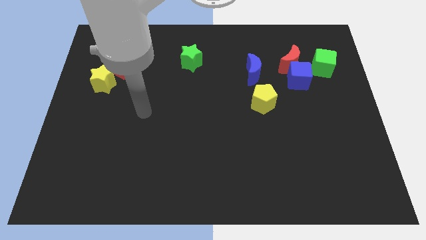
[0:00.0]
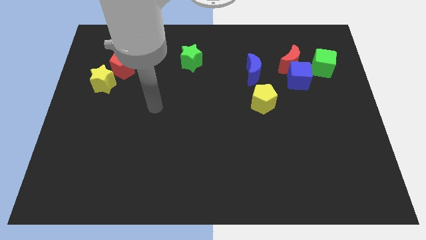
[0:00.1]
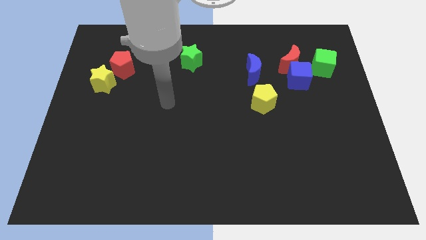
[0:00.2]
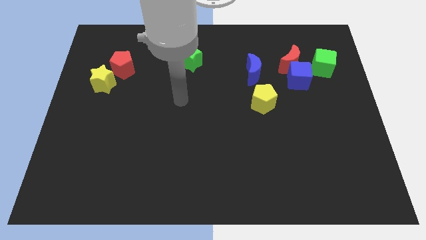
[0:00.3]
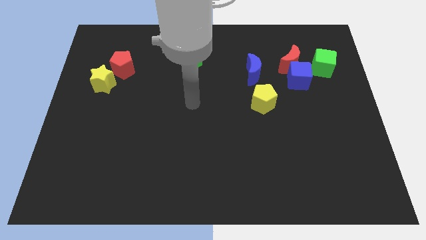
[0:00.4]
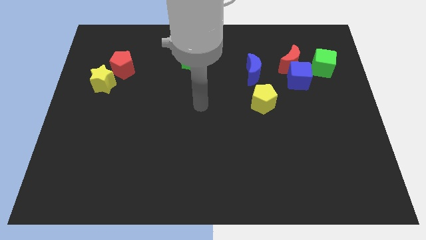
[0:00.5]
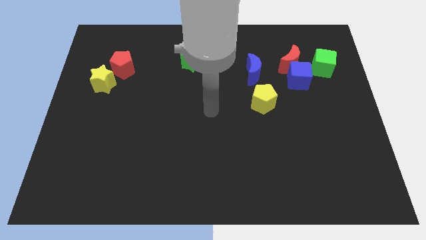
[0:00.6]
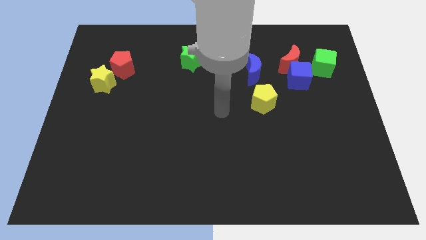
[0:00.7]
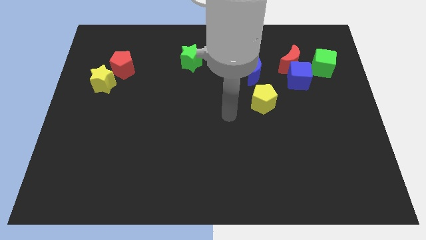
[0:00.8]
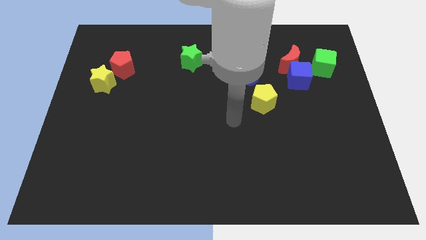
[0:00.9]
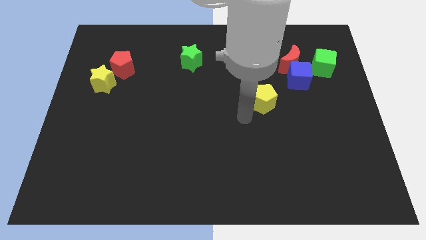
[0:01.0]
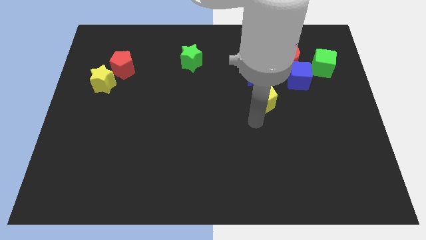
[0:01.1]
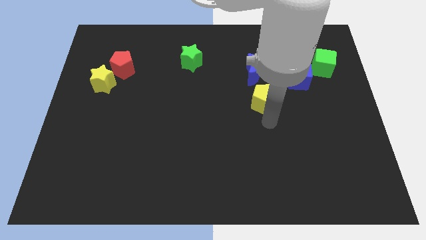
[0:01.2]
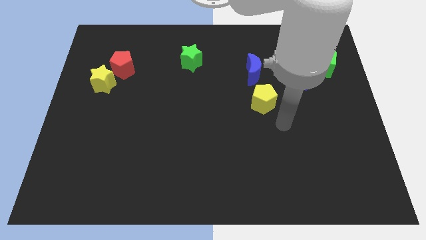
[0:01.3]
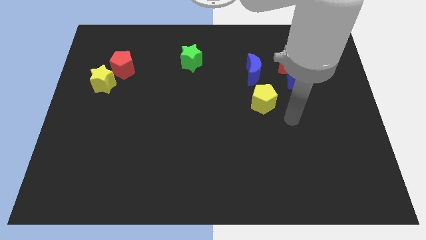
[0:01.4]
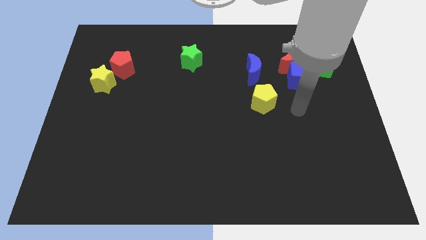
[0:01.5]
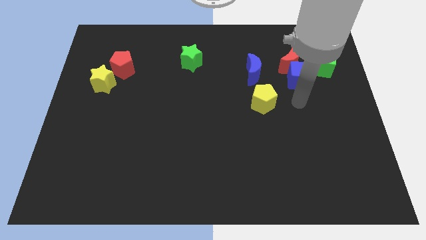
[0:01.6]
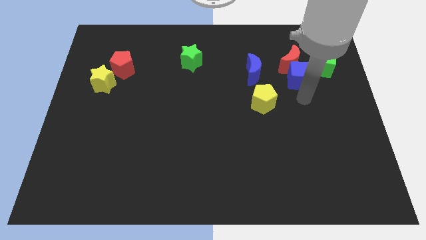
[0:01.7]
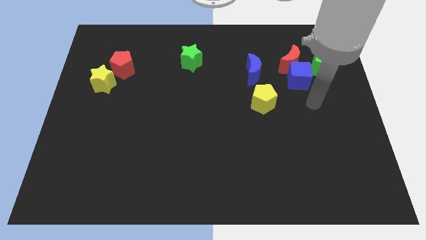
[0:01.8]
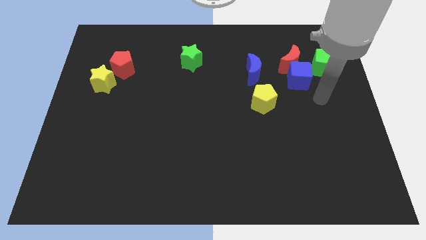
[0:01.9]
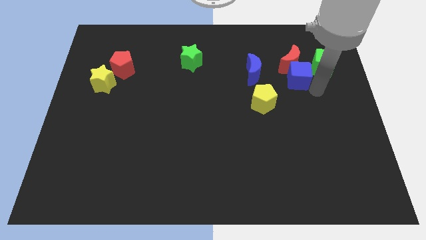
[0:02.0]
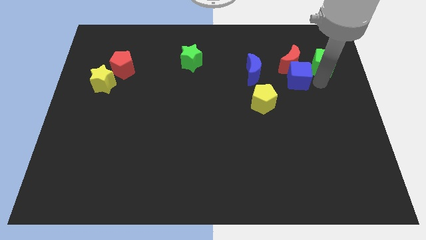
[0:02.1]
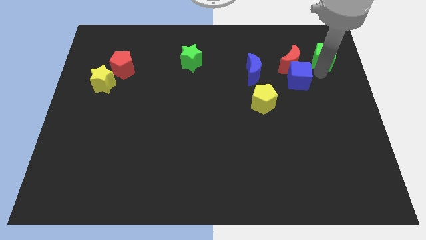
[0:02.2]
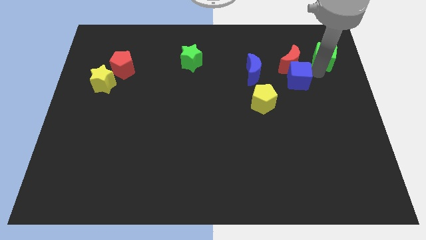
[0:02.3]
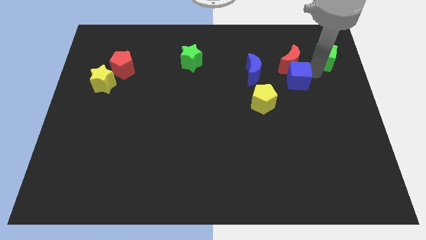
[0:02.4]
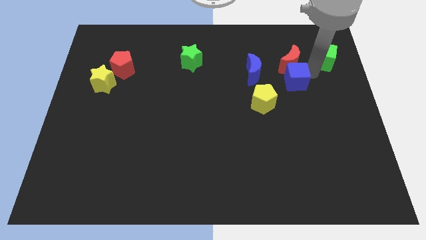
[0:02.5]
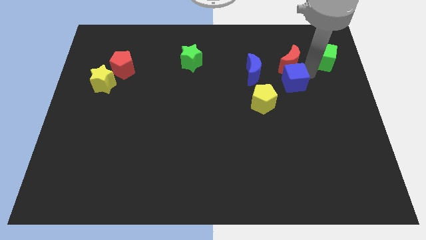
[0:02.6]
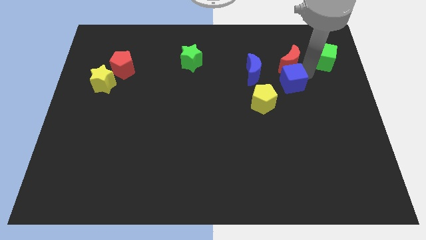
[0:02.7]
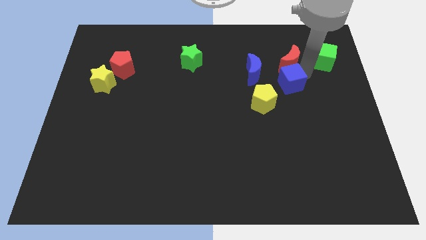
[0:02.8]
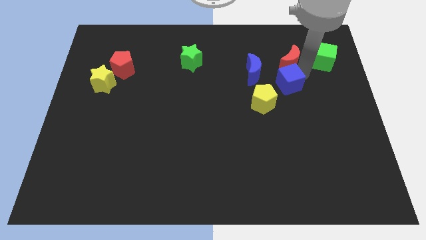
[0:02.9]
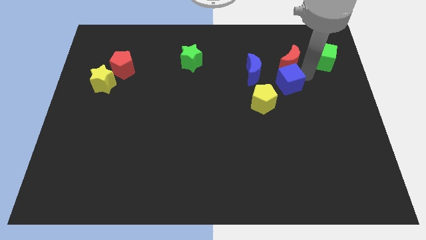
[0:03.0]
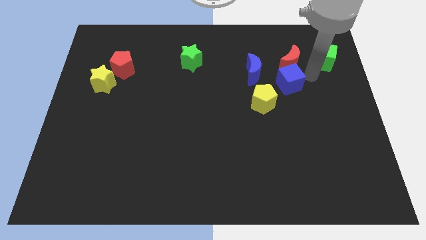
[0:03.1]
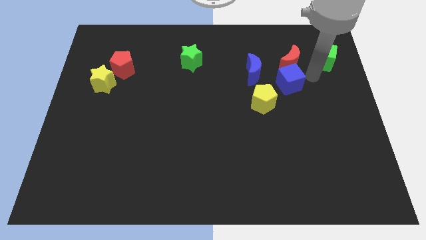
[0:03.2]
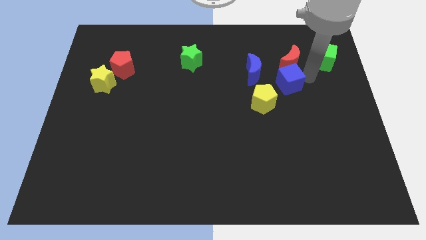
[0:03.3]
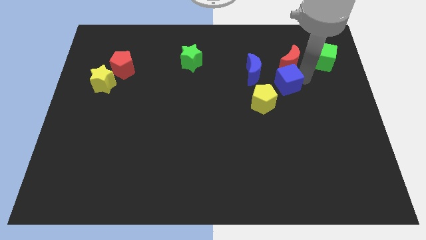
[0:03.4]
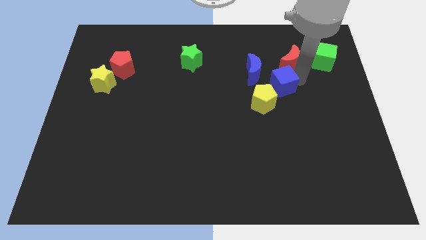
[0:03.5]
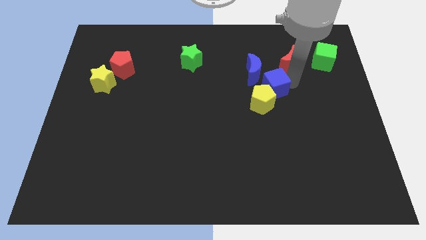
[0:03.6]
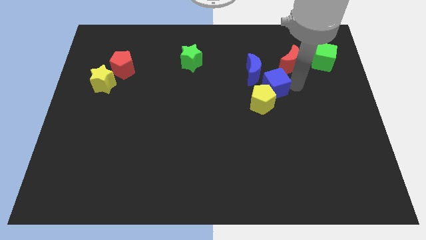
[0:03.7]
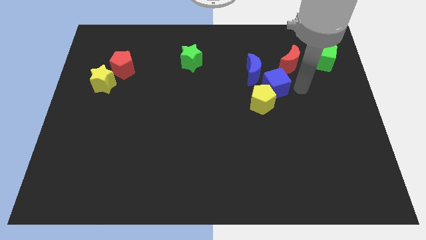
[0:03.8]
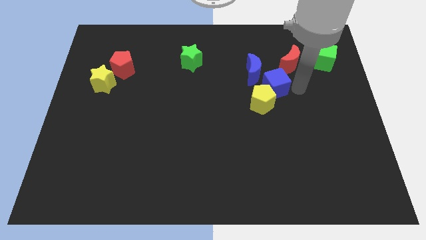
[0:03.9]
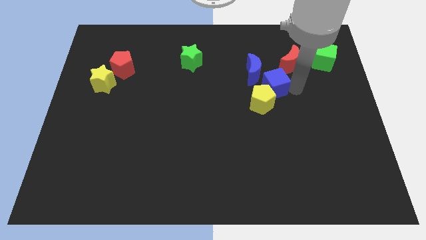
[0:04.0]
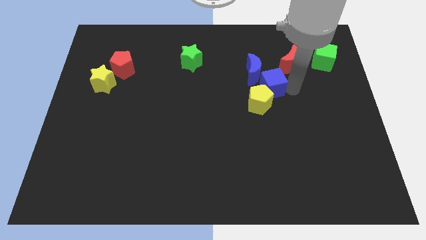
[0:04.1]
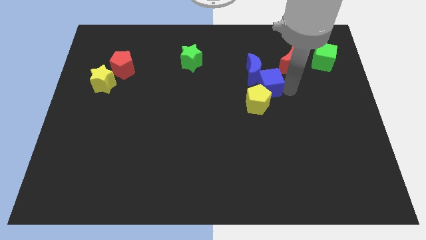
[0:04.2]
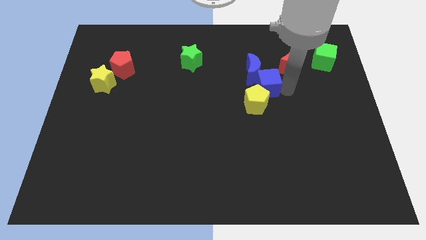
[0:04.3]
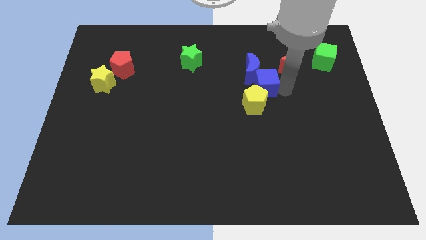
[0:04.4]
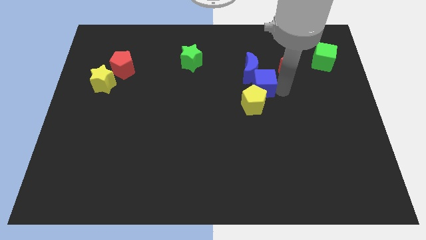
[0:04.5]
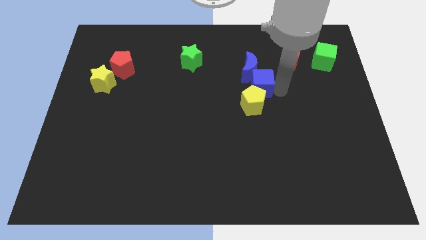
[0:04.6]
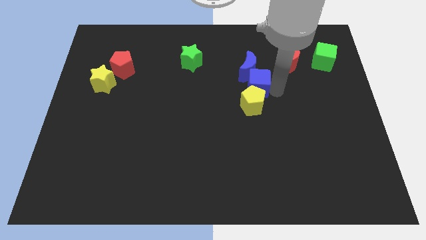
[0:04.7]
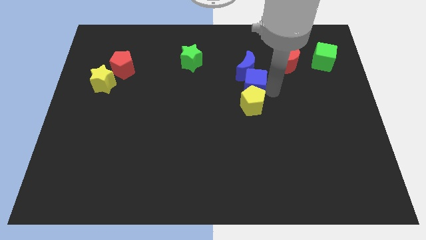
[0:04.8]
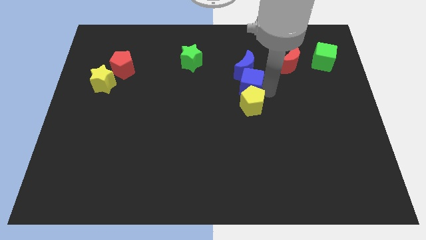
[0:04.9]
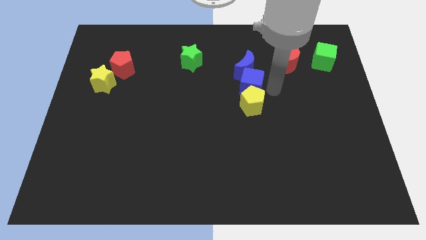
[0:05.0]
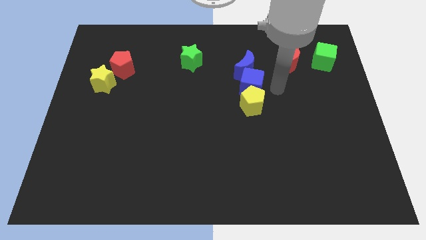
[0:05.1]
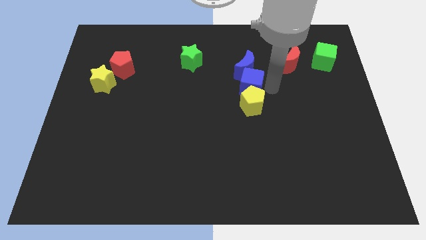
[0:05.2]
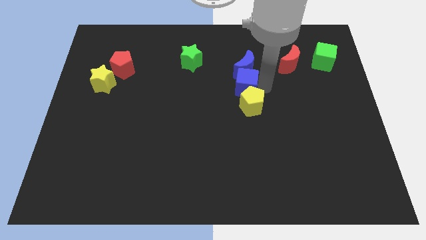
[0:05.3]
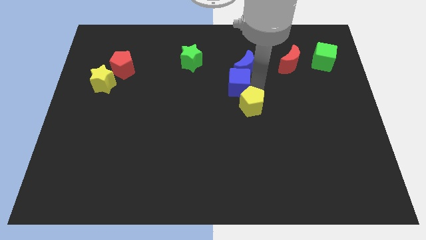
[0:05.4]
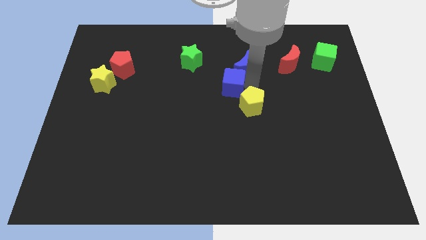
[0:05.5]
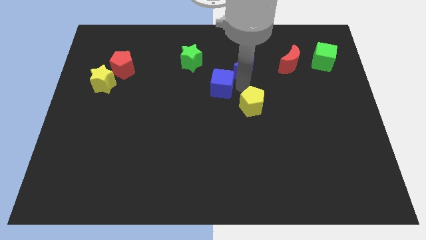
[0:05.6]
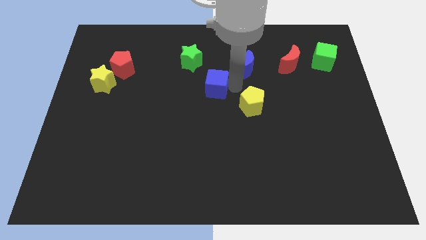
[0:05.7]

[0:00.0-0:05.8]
push the blue cube left

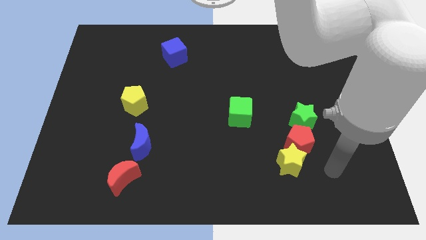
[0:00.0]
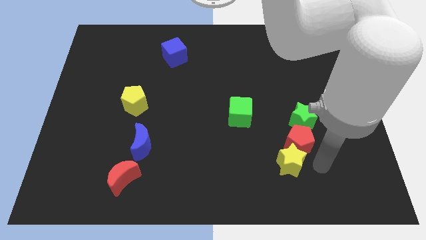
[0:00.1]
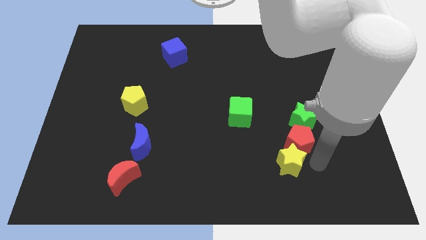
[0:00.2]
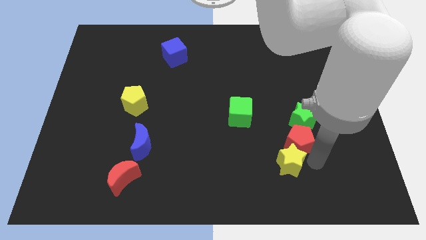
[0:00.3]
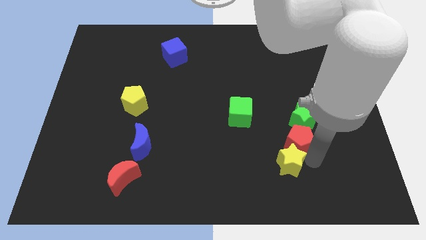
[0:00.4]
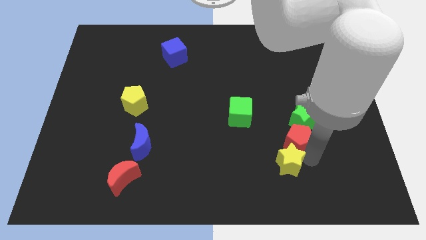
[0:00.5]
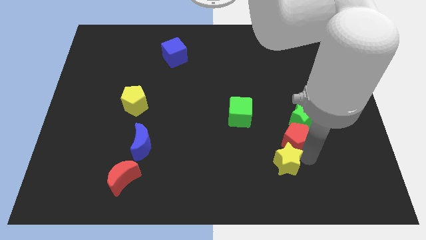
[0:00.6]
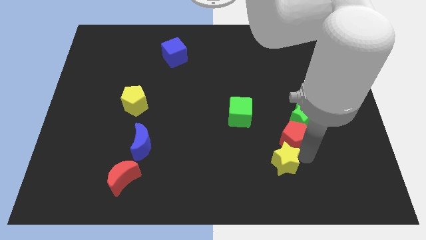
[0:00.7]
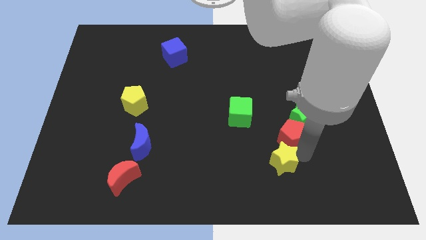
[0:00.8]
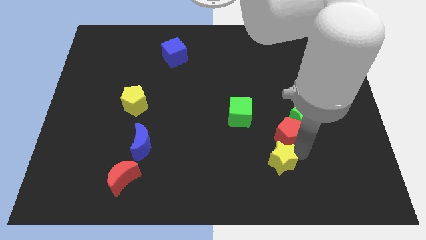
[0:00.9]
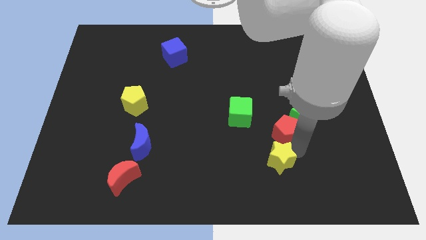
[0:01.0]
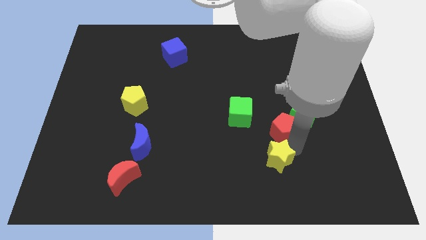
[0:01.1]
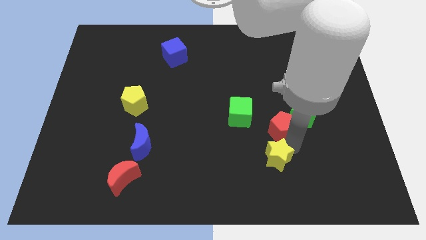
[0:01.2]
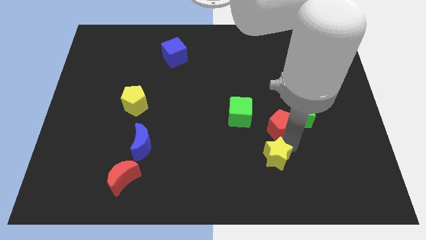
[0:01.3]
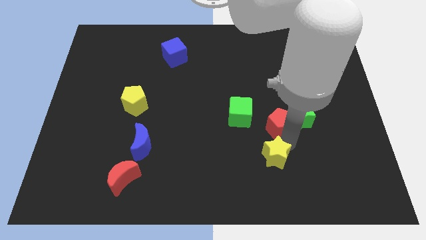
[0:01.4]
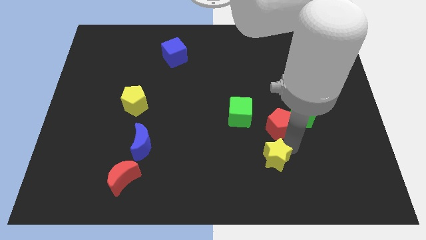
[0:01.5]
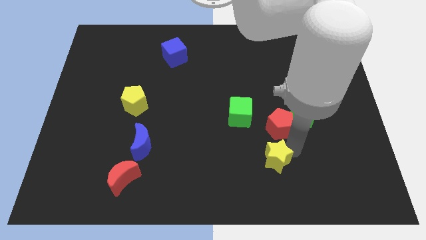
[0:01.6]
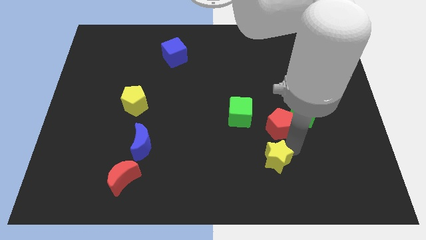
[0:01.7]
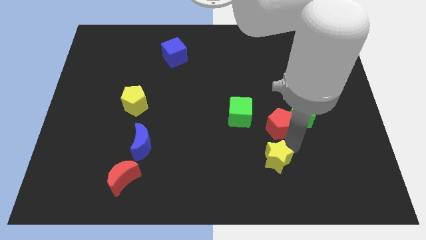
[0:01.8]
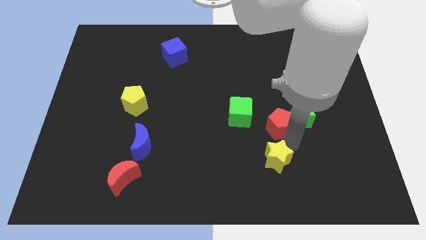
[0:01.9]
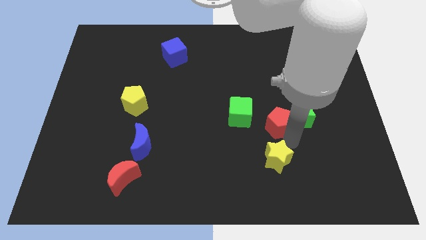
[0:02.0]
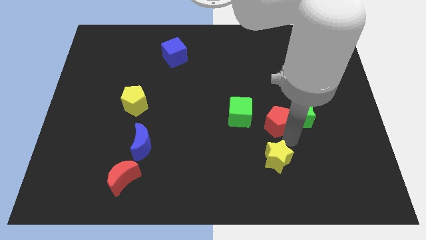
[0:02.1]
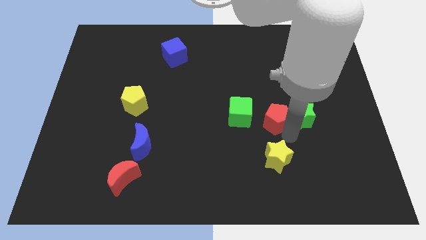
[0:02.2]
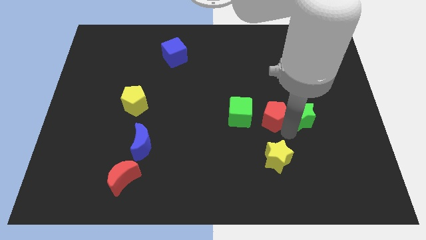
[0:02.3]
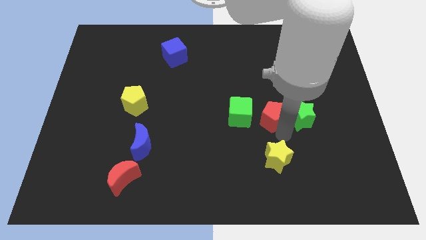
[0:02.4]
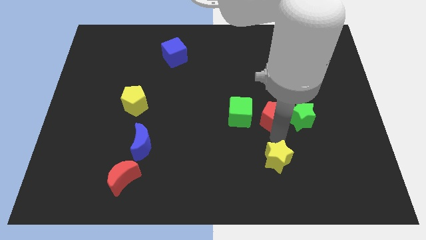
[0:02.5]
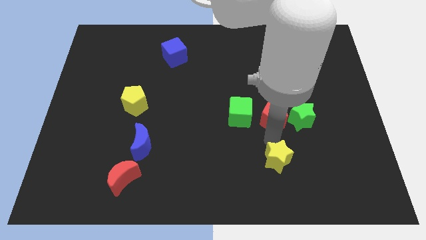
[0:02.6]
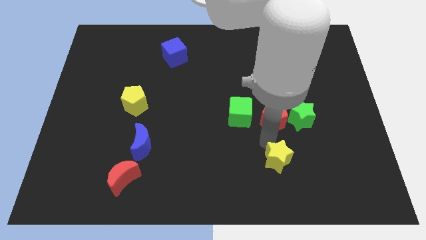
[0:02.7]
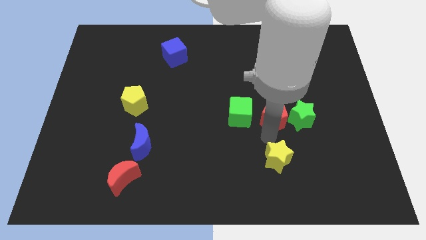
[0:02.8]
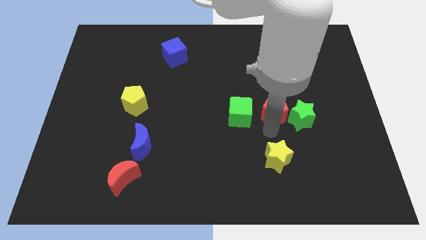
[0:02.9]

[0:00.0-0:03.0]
slightly slide the red pentagon upwards
